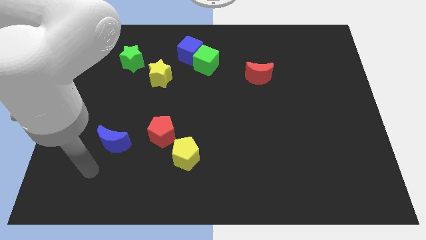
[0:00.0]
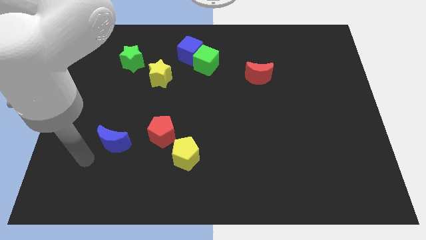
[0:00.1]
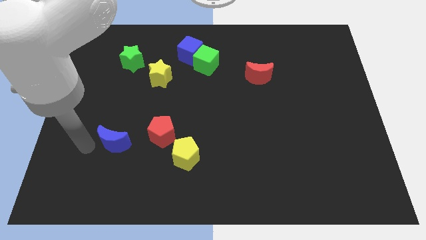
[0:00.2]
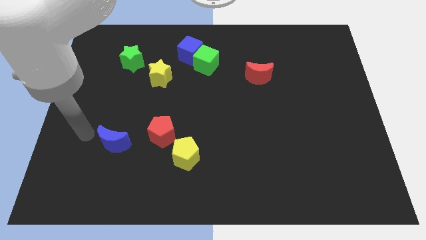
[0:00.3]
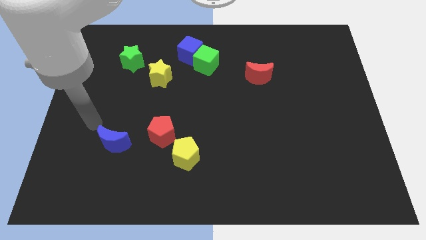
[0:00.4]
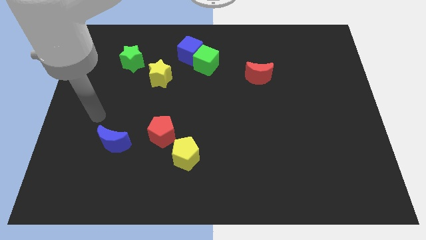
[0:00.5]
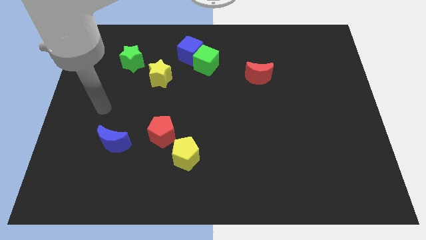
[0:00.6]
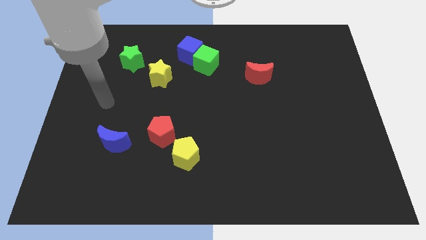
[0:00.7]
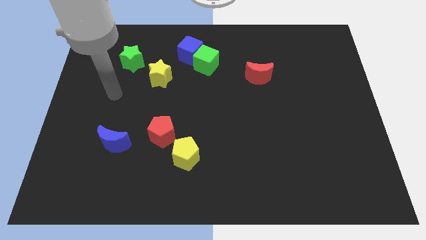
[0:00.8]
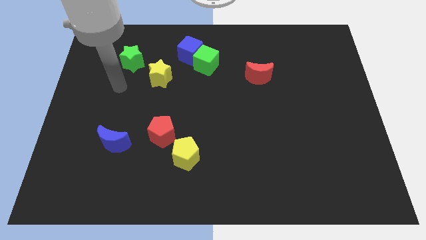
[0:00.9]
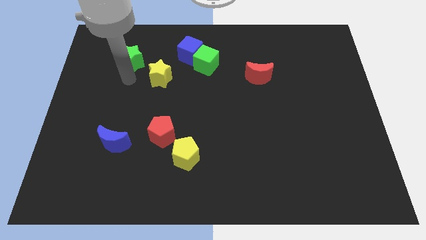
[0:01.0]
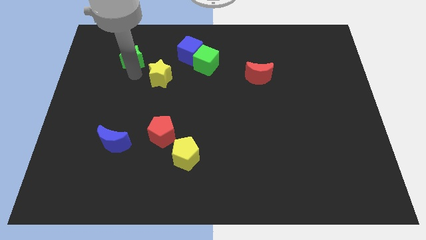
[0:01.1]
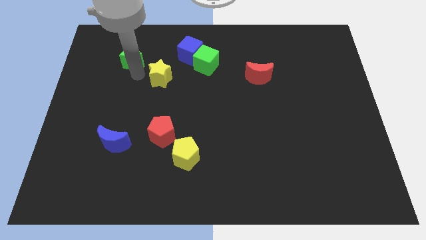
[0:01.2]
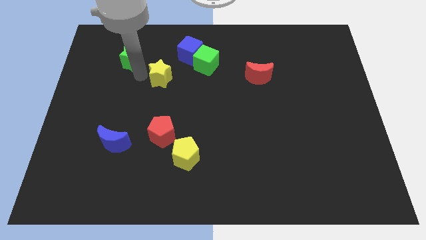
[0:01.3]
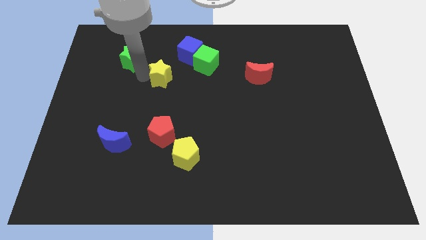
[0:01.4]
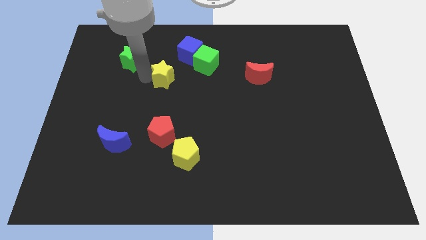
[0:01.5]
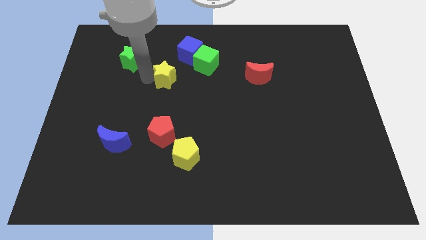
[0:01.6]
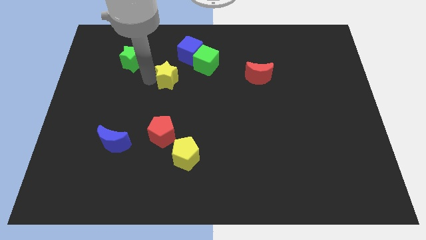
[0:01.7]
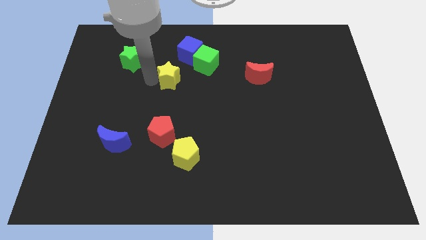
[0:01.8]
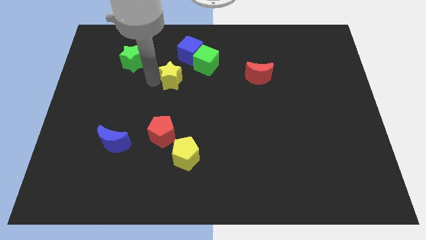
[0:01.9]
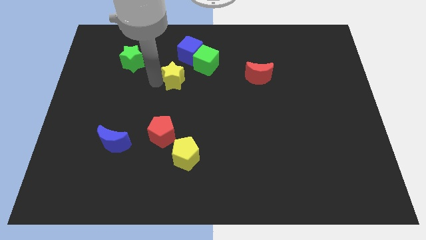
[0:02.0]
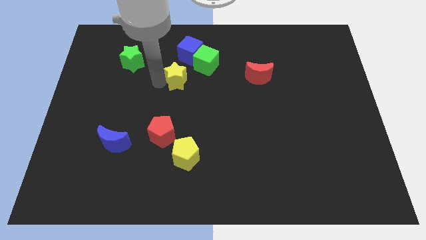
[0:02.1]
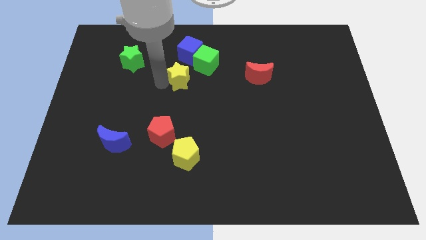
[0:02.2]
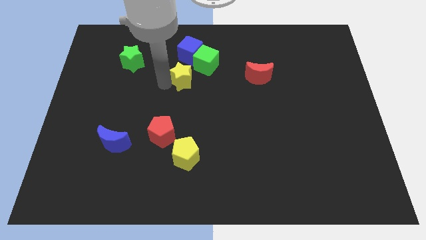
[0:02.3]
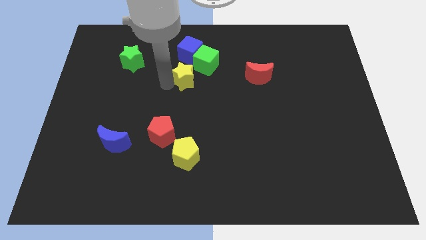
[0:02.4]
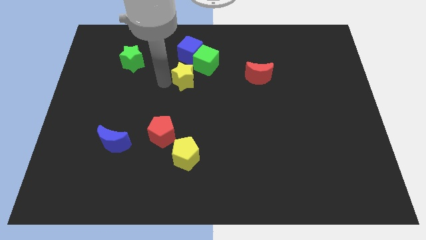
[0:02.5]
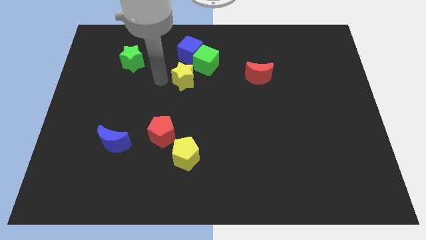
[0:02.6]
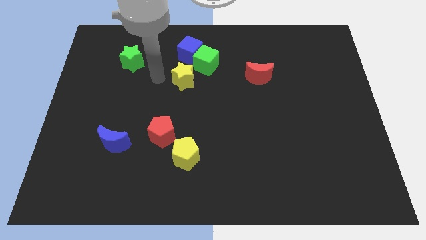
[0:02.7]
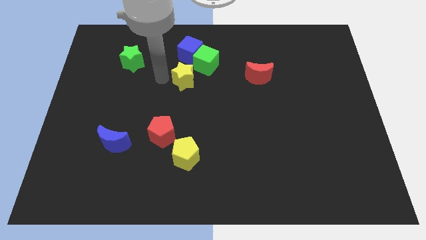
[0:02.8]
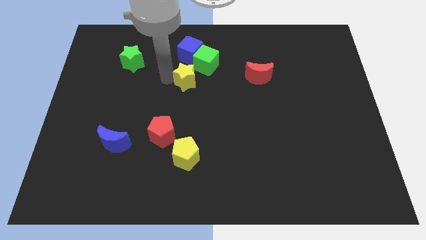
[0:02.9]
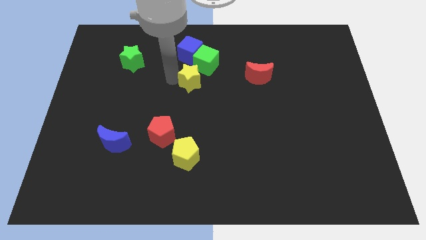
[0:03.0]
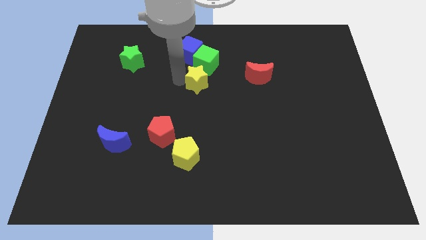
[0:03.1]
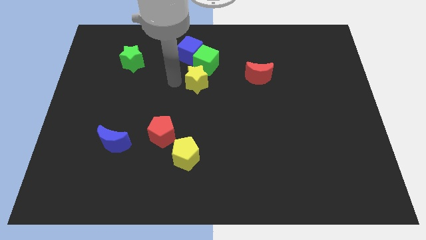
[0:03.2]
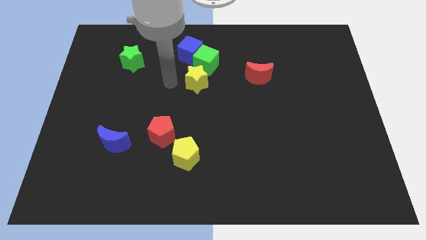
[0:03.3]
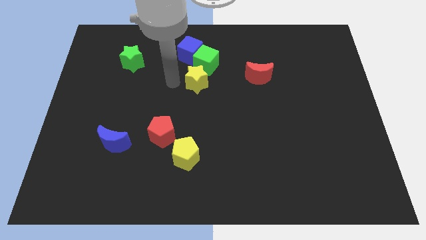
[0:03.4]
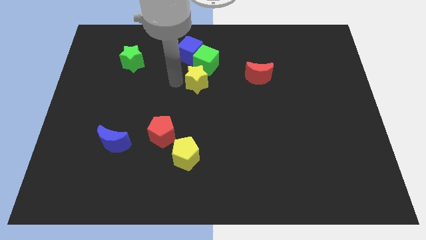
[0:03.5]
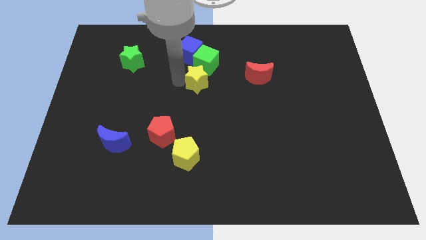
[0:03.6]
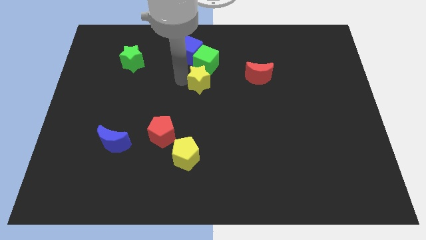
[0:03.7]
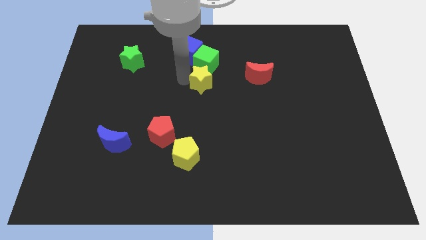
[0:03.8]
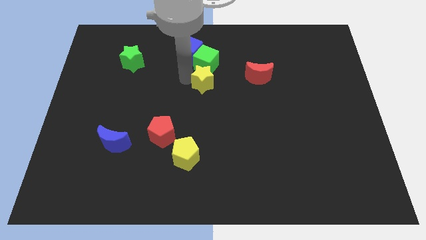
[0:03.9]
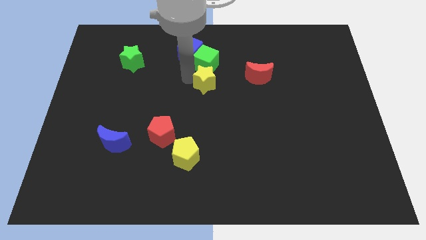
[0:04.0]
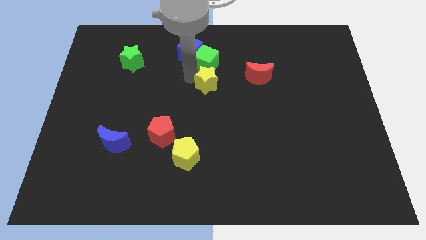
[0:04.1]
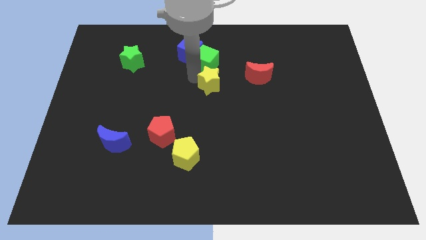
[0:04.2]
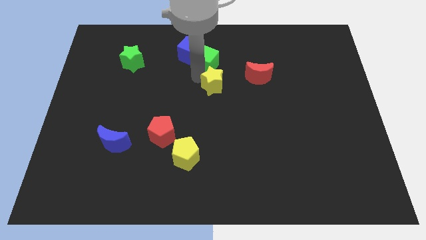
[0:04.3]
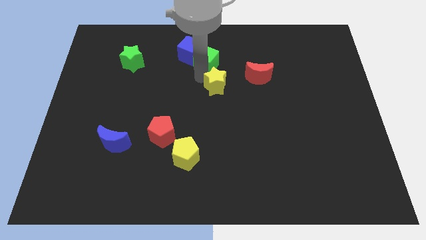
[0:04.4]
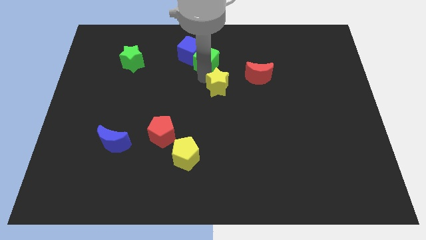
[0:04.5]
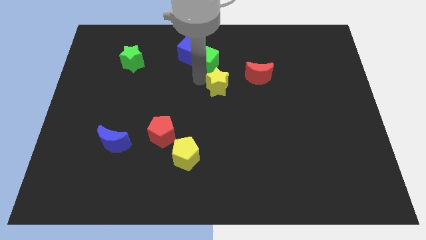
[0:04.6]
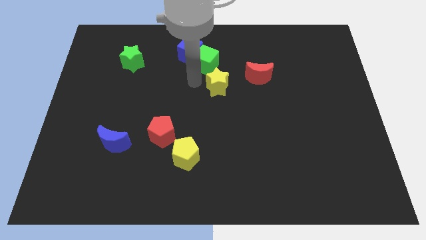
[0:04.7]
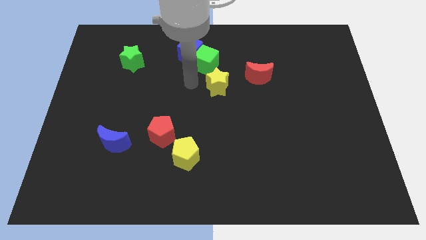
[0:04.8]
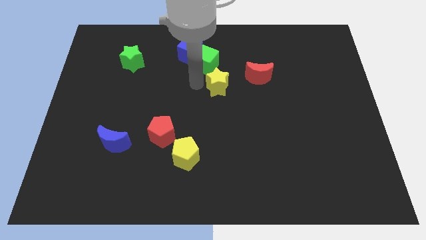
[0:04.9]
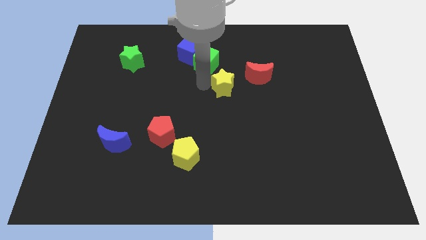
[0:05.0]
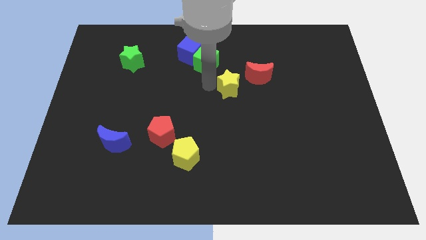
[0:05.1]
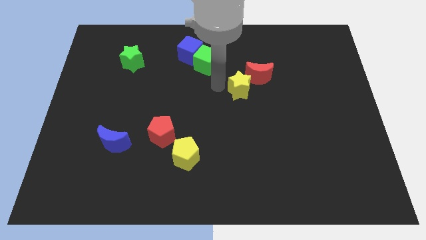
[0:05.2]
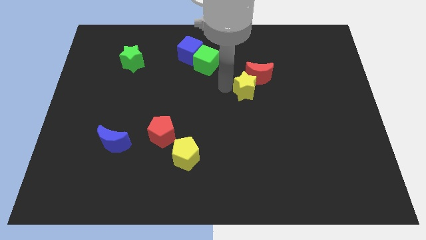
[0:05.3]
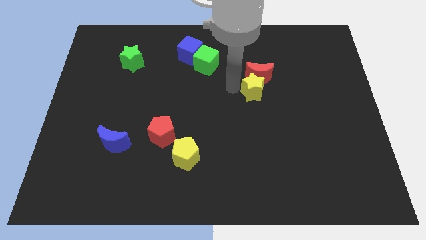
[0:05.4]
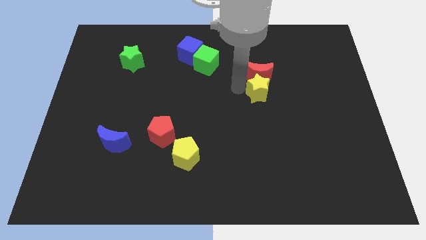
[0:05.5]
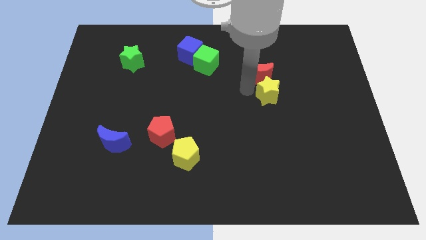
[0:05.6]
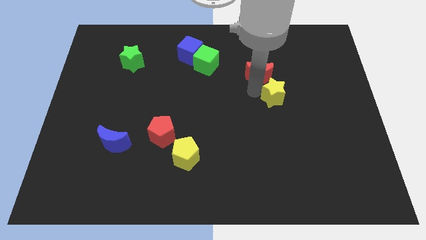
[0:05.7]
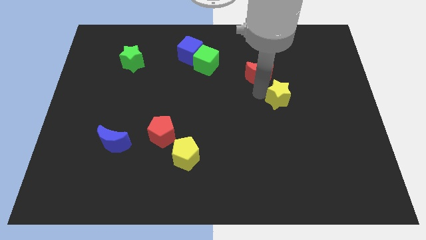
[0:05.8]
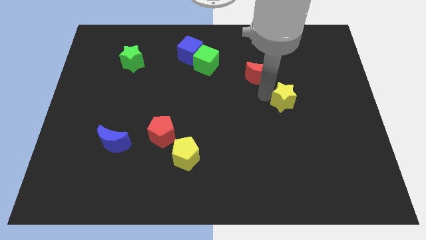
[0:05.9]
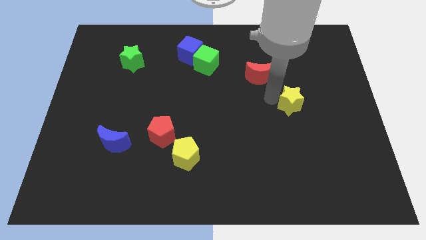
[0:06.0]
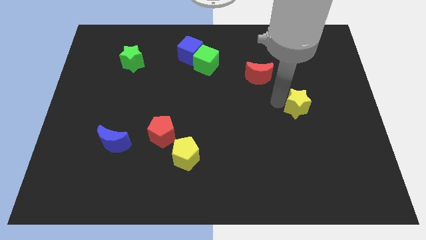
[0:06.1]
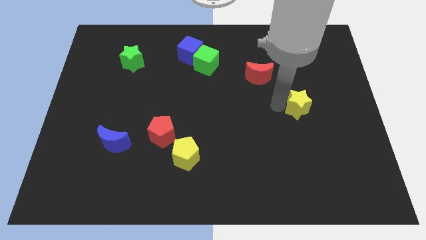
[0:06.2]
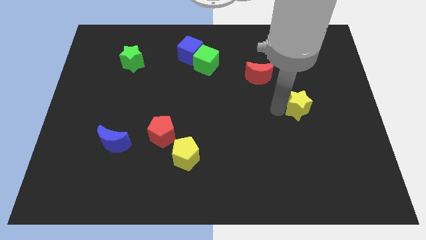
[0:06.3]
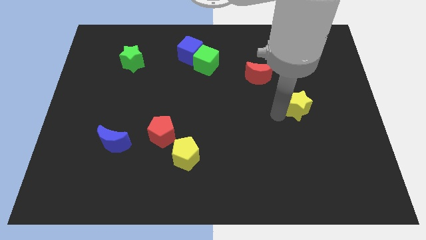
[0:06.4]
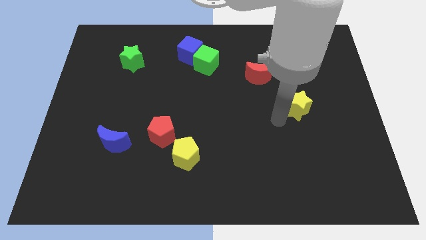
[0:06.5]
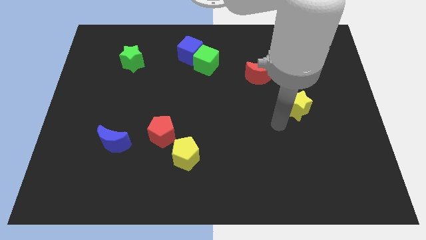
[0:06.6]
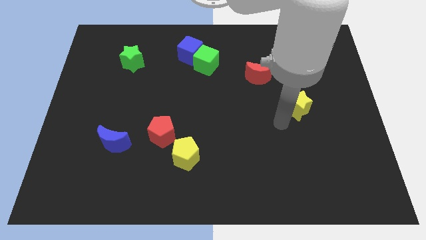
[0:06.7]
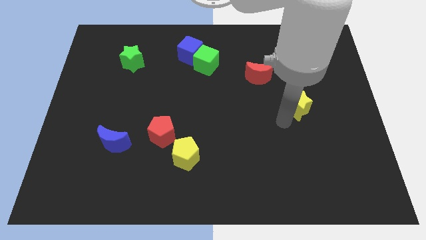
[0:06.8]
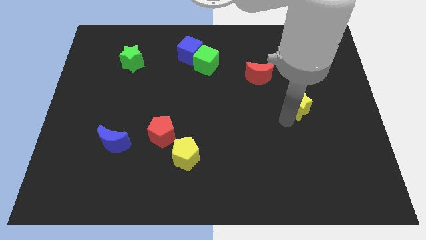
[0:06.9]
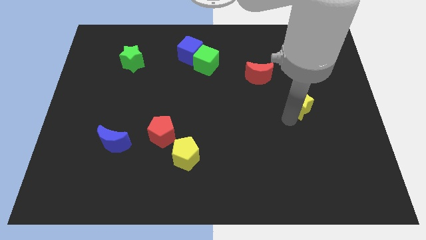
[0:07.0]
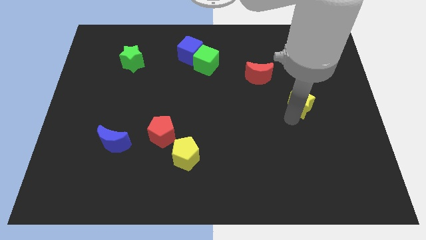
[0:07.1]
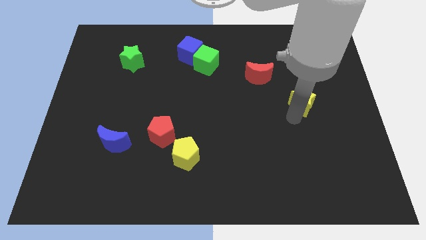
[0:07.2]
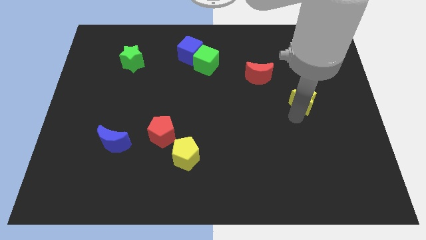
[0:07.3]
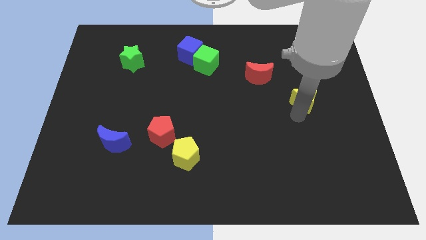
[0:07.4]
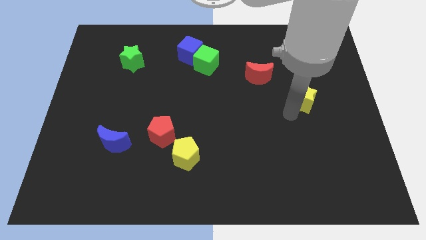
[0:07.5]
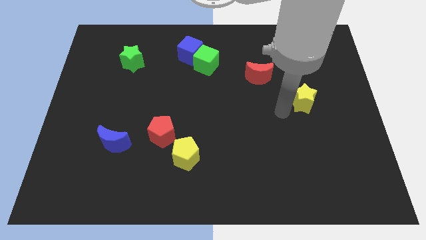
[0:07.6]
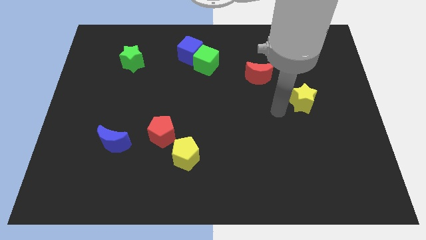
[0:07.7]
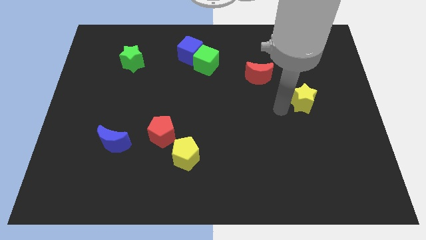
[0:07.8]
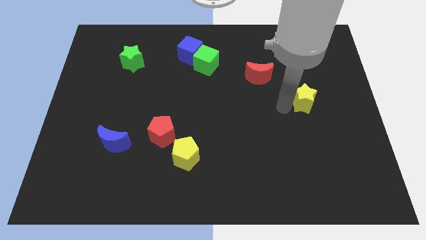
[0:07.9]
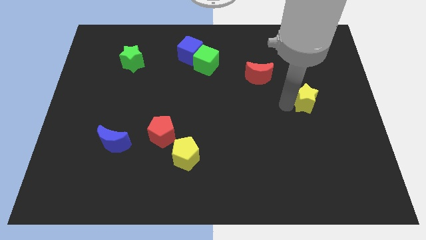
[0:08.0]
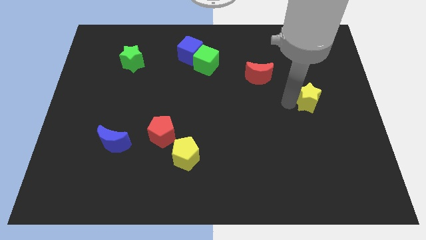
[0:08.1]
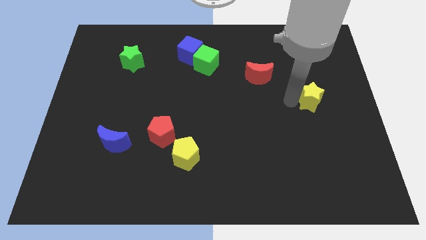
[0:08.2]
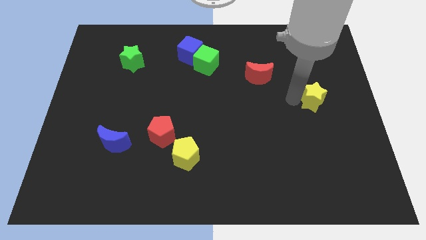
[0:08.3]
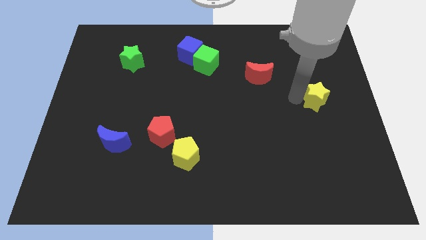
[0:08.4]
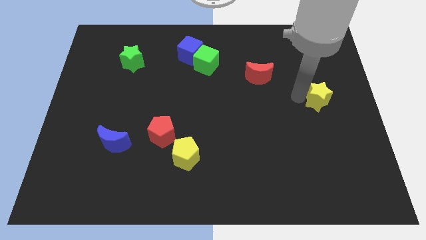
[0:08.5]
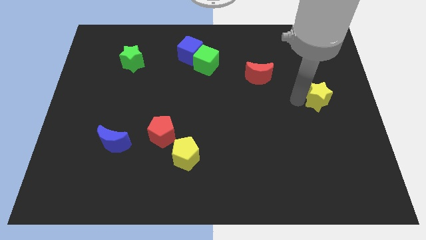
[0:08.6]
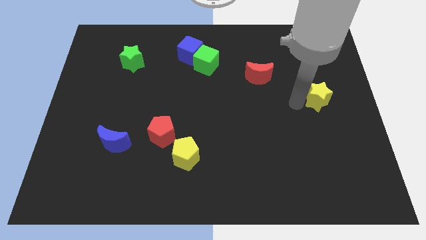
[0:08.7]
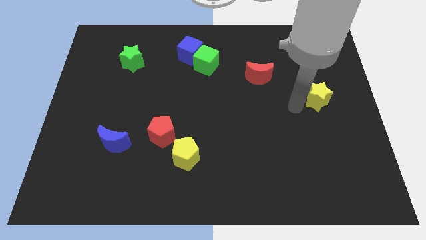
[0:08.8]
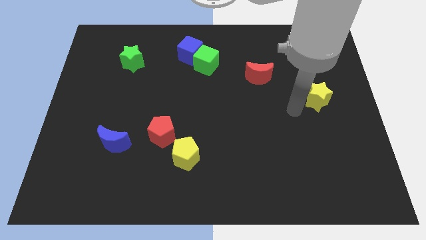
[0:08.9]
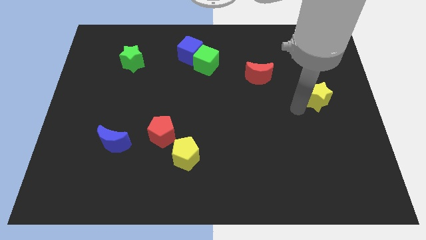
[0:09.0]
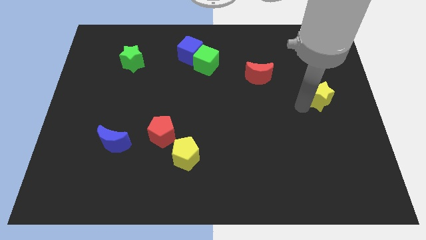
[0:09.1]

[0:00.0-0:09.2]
put the yellow star to the right side
